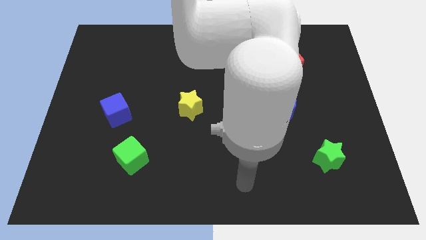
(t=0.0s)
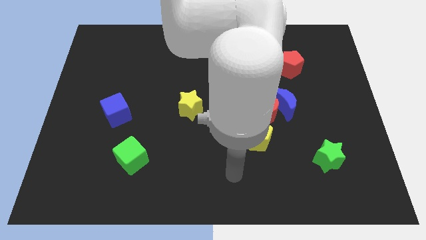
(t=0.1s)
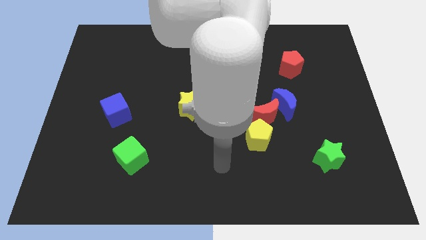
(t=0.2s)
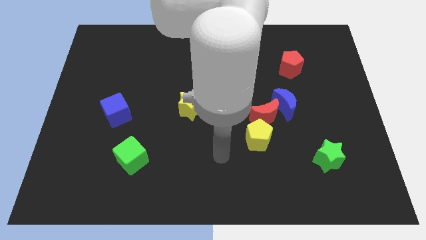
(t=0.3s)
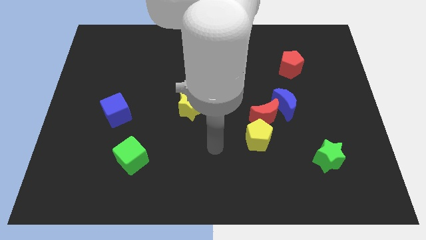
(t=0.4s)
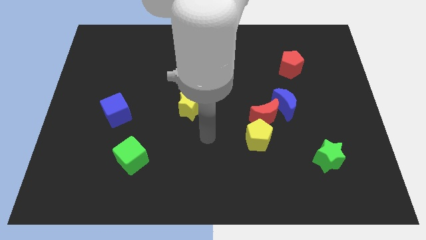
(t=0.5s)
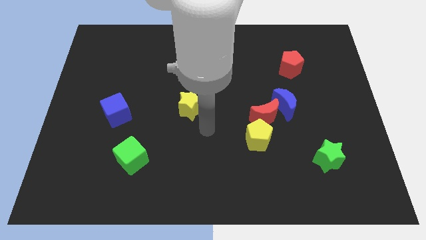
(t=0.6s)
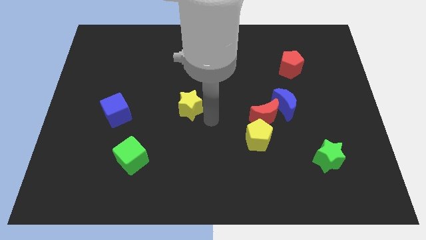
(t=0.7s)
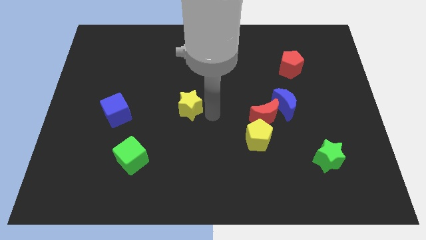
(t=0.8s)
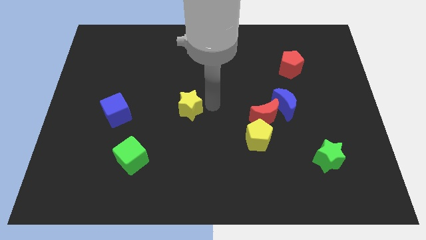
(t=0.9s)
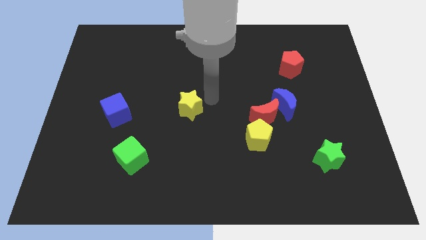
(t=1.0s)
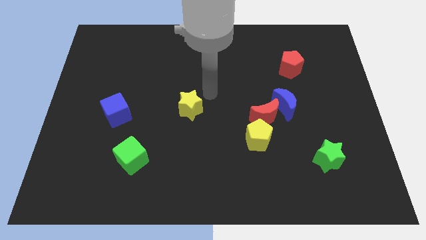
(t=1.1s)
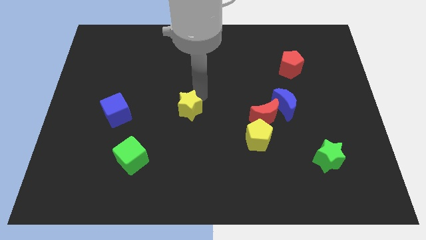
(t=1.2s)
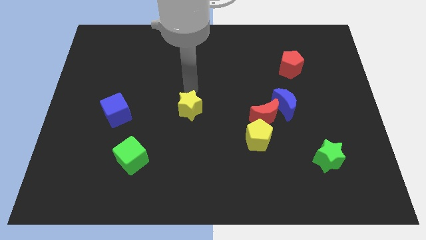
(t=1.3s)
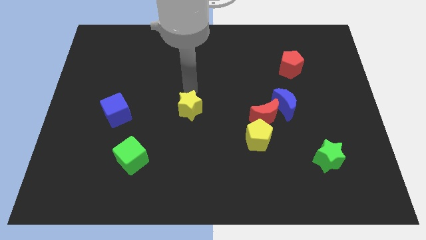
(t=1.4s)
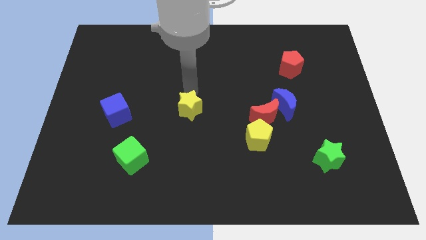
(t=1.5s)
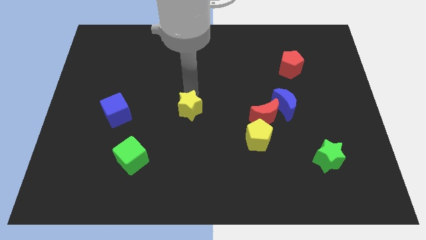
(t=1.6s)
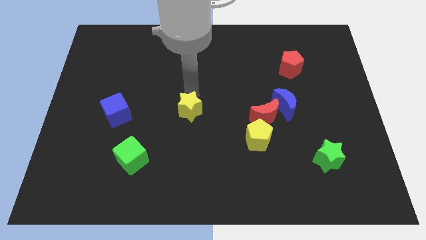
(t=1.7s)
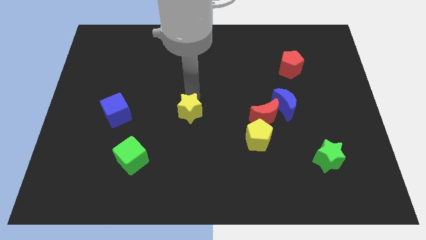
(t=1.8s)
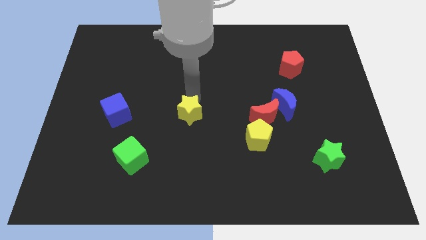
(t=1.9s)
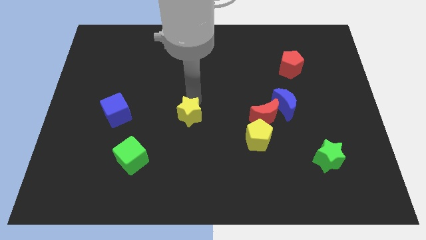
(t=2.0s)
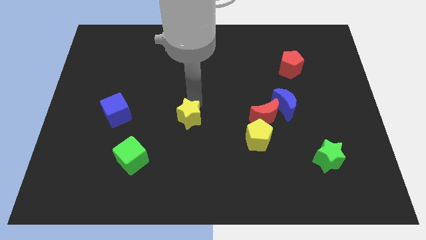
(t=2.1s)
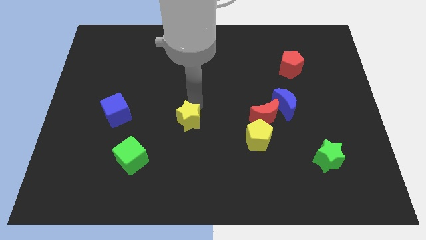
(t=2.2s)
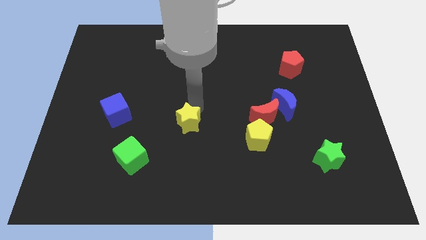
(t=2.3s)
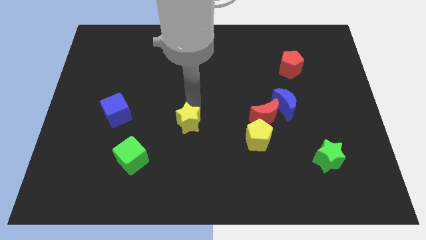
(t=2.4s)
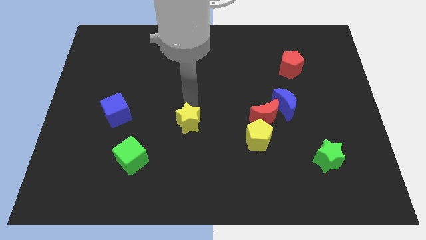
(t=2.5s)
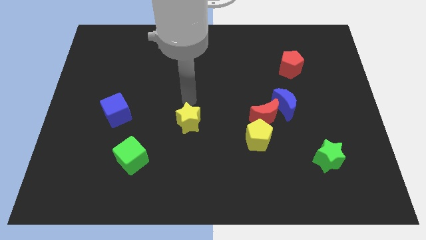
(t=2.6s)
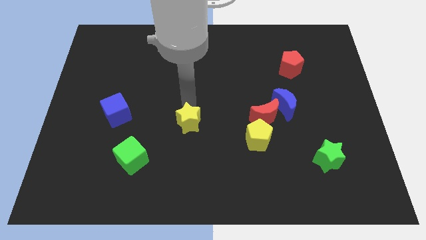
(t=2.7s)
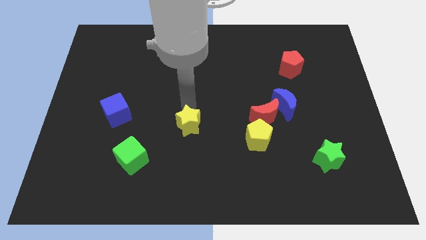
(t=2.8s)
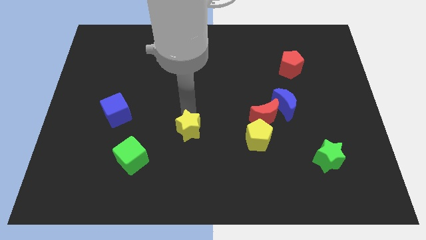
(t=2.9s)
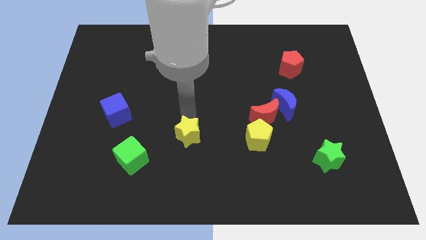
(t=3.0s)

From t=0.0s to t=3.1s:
slightly move the yellow star downwards

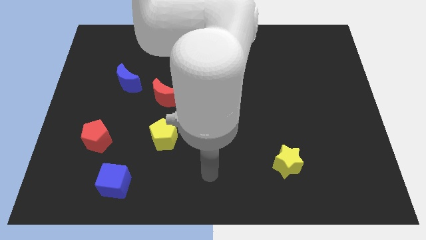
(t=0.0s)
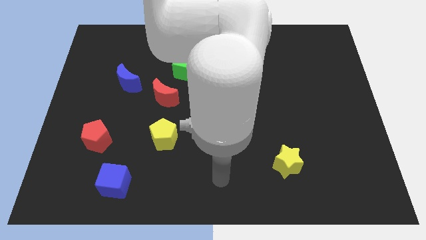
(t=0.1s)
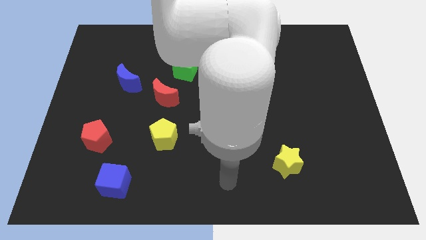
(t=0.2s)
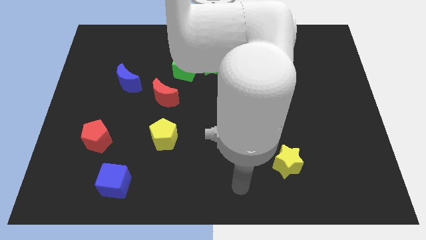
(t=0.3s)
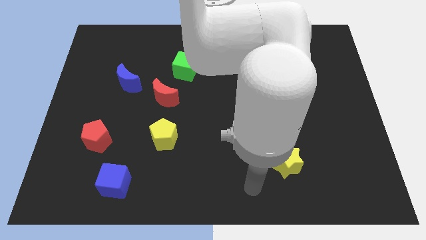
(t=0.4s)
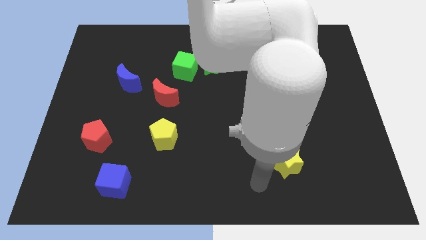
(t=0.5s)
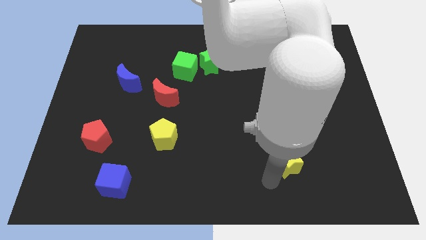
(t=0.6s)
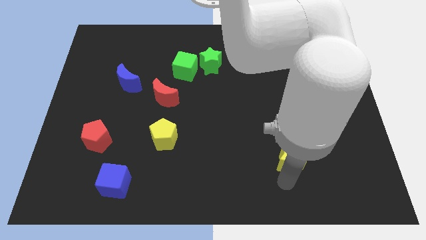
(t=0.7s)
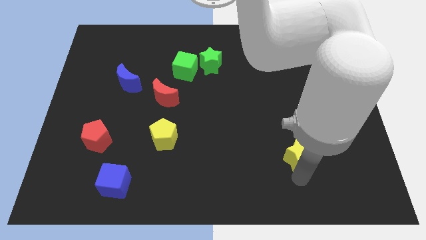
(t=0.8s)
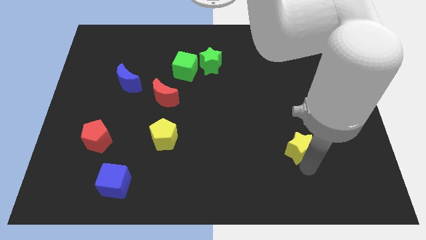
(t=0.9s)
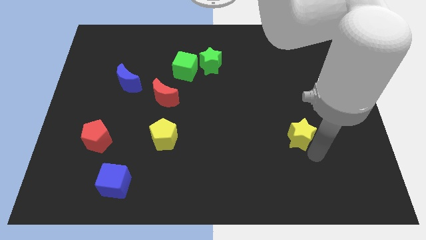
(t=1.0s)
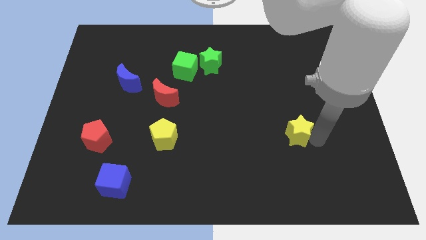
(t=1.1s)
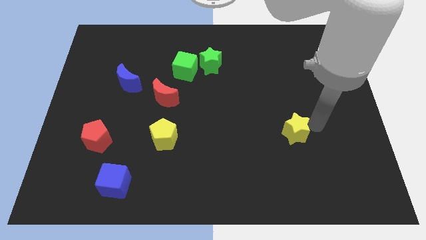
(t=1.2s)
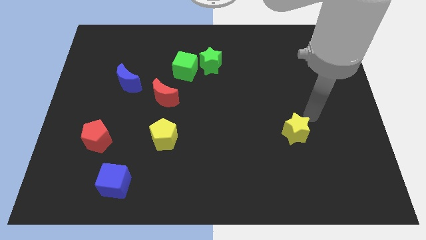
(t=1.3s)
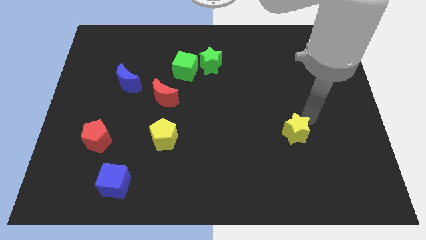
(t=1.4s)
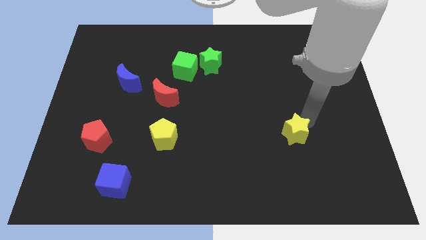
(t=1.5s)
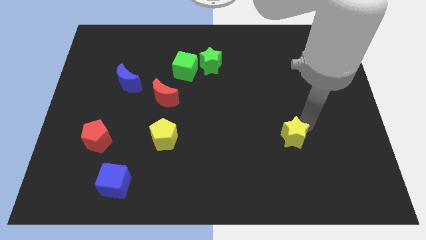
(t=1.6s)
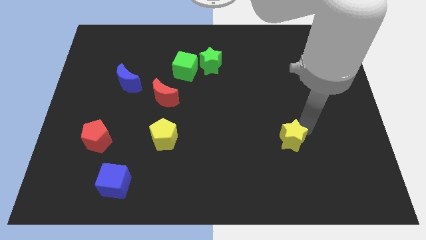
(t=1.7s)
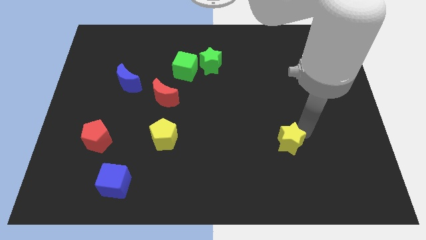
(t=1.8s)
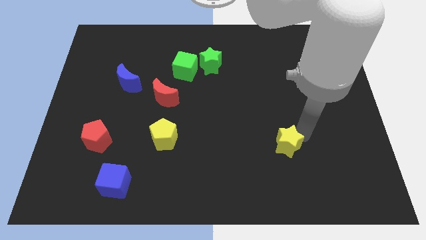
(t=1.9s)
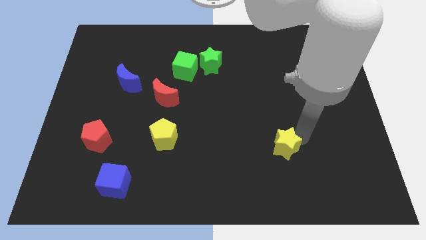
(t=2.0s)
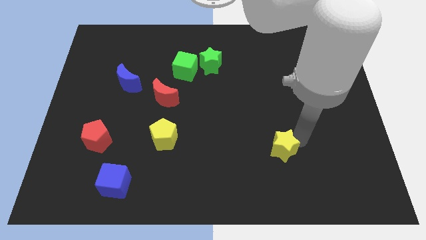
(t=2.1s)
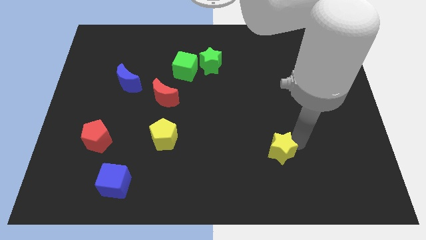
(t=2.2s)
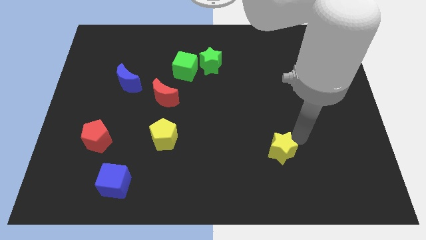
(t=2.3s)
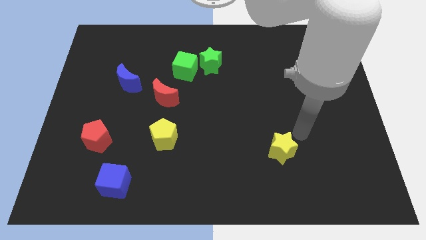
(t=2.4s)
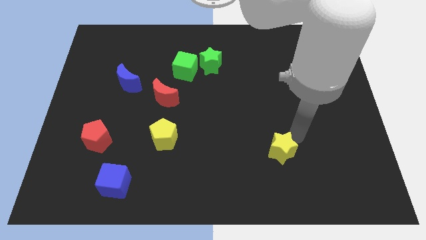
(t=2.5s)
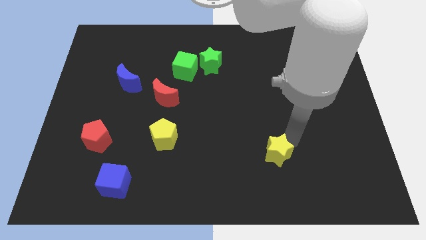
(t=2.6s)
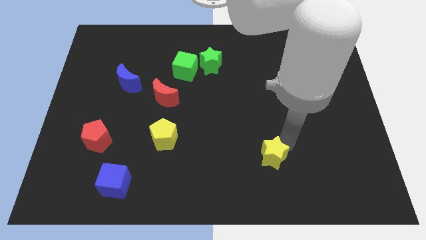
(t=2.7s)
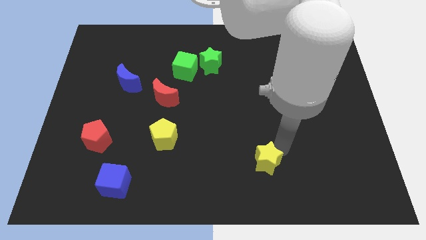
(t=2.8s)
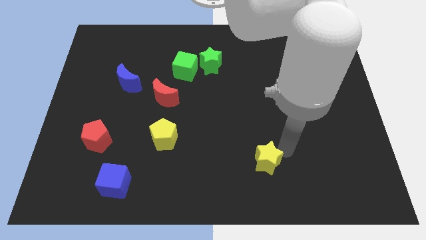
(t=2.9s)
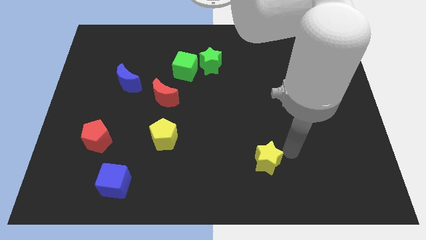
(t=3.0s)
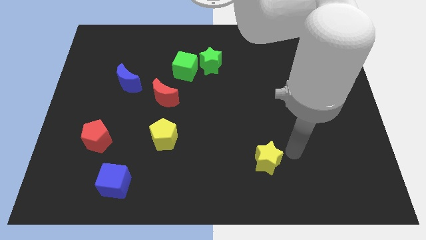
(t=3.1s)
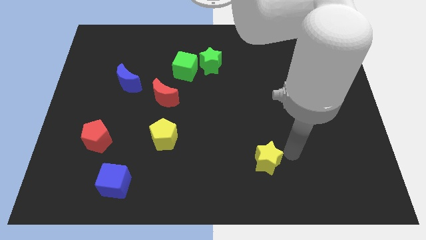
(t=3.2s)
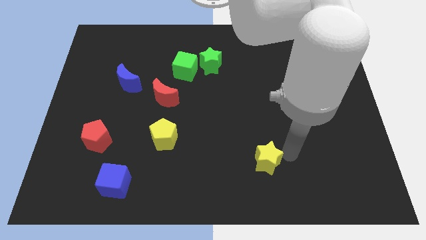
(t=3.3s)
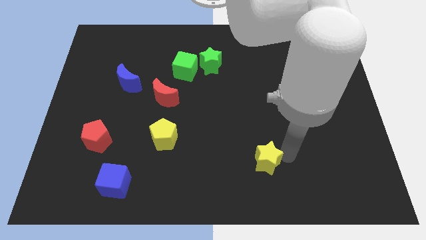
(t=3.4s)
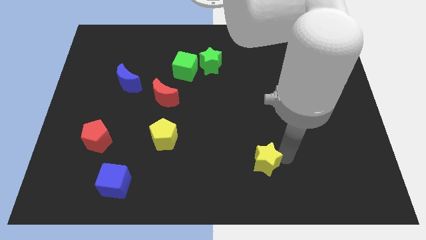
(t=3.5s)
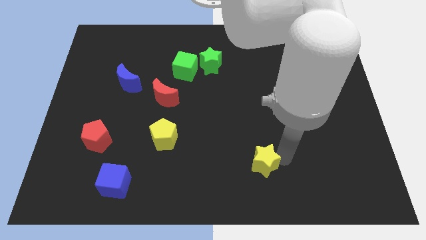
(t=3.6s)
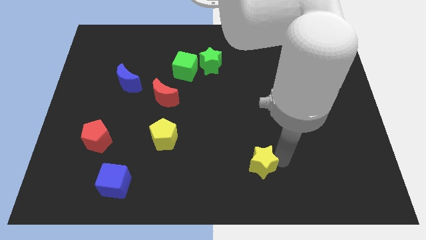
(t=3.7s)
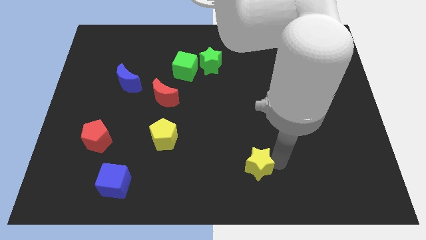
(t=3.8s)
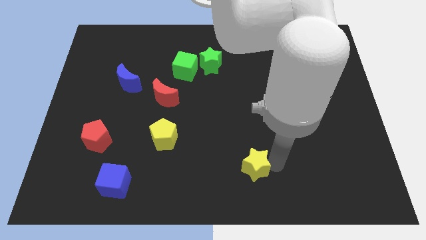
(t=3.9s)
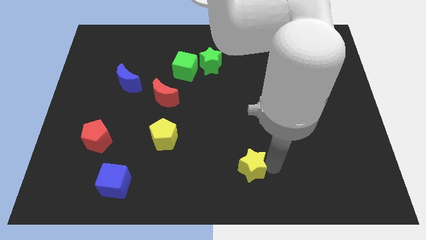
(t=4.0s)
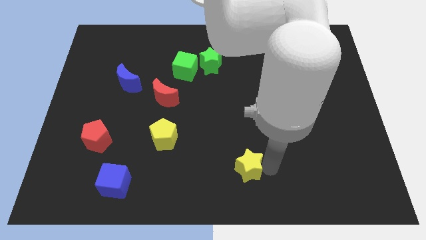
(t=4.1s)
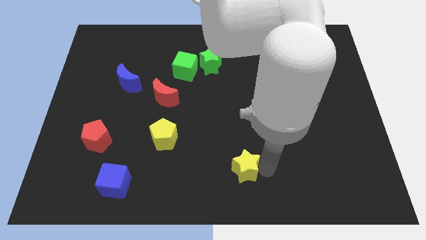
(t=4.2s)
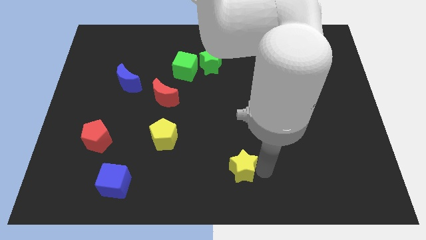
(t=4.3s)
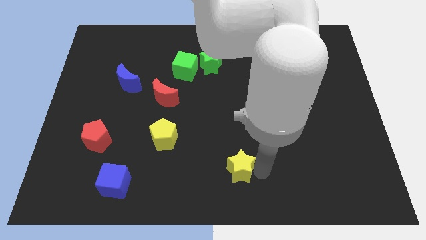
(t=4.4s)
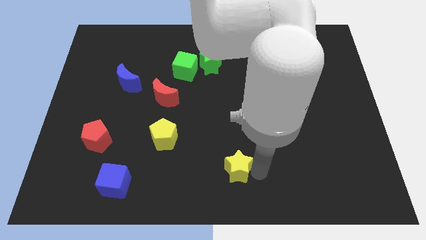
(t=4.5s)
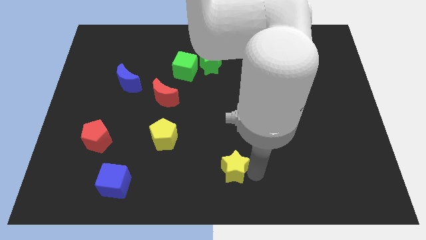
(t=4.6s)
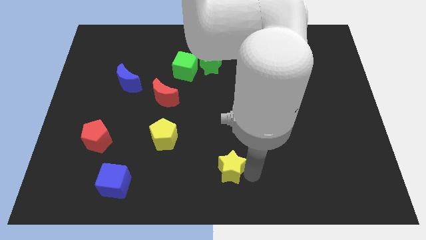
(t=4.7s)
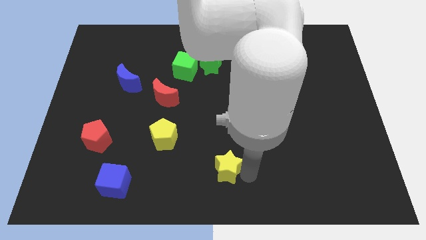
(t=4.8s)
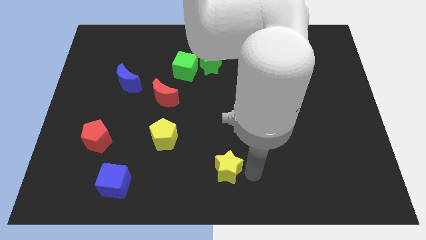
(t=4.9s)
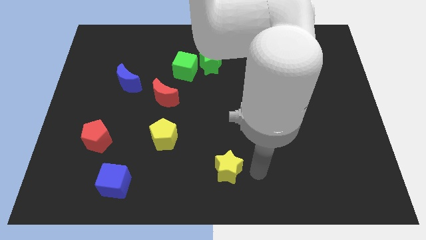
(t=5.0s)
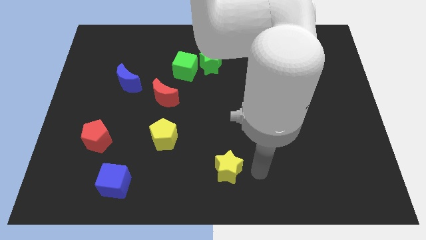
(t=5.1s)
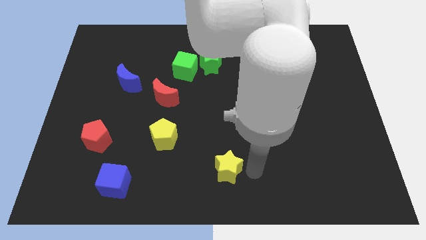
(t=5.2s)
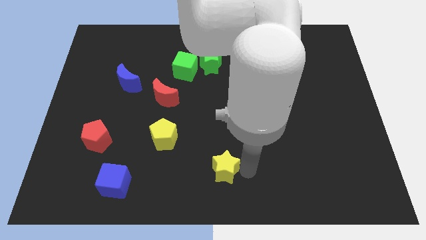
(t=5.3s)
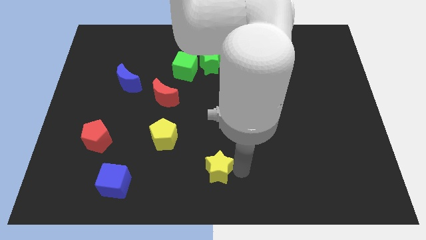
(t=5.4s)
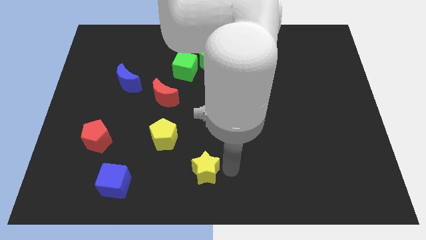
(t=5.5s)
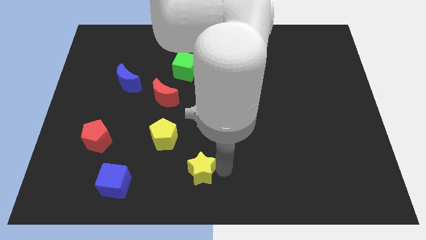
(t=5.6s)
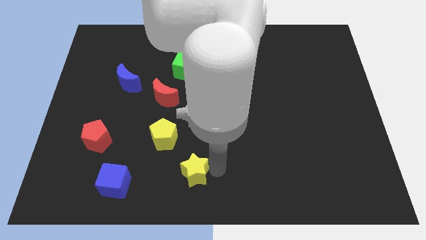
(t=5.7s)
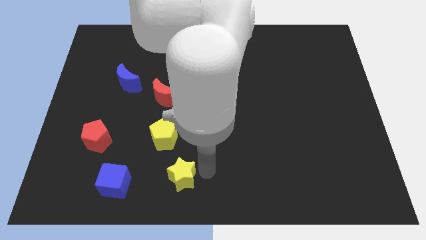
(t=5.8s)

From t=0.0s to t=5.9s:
slide the yellow star left
